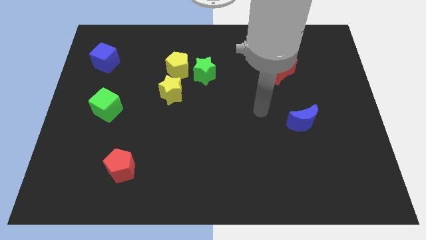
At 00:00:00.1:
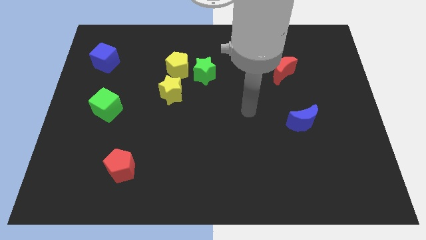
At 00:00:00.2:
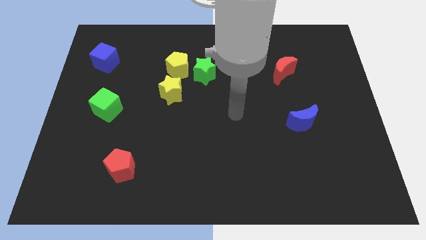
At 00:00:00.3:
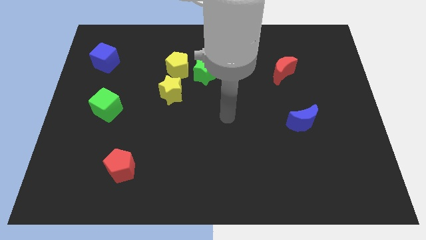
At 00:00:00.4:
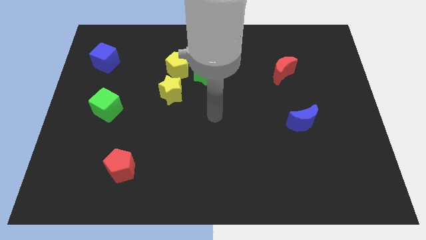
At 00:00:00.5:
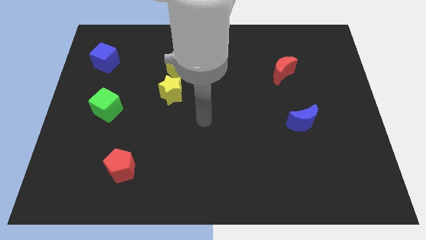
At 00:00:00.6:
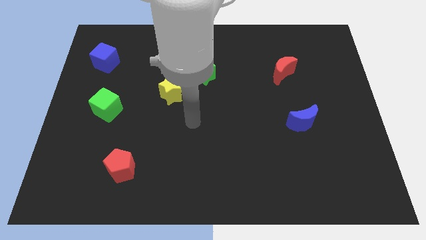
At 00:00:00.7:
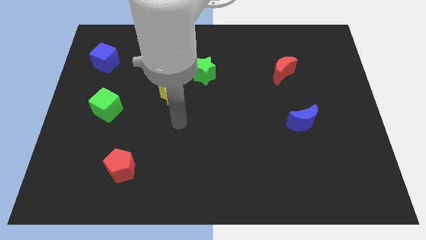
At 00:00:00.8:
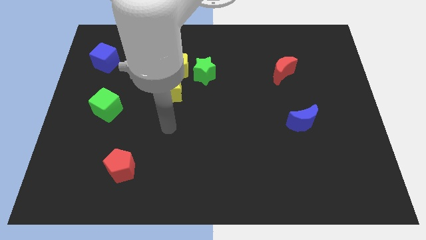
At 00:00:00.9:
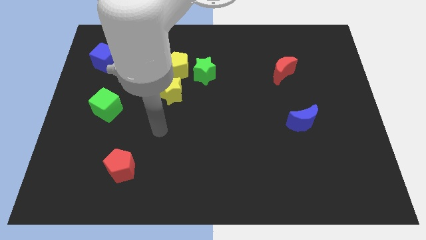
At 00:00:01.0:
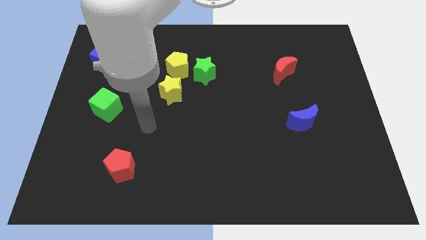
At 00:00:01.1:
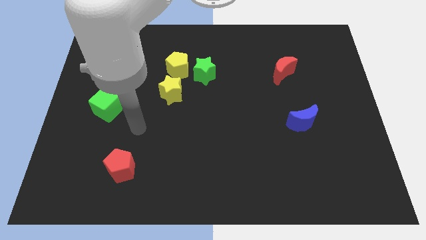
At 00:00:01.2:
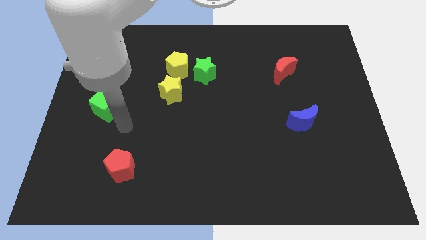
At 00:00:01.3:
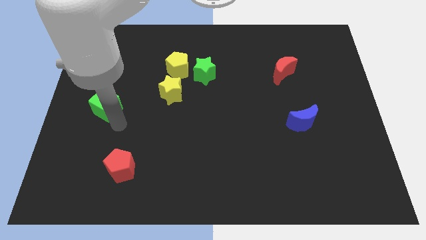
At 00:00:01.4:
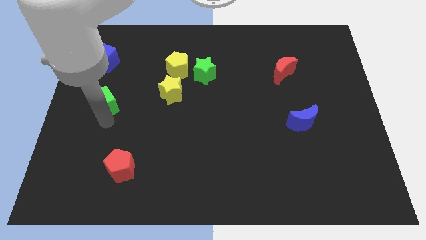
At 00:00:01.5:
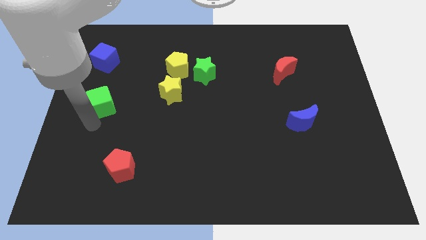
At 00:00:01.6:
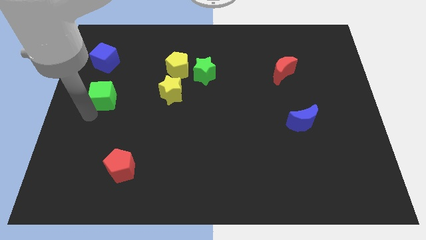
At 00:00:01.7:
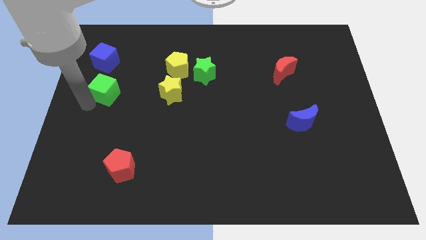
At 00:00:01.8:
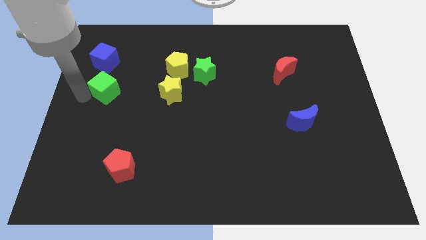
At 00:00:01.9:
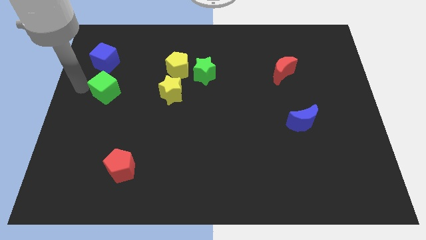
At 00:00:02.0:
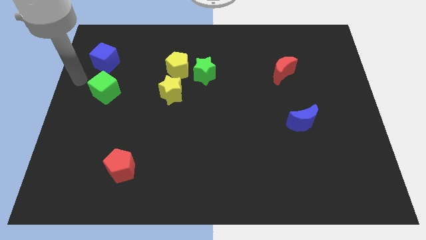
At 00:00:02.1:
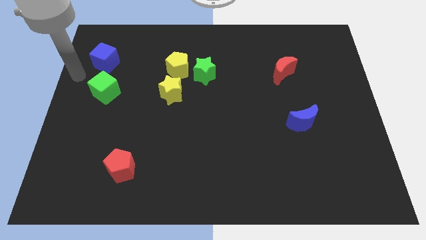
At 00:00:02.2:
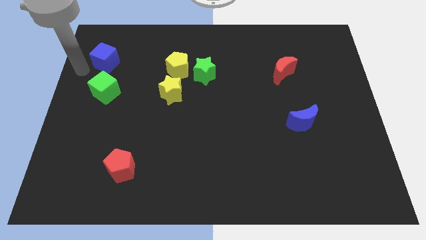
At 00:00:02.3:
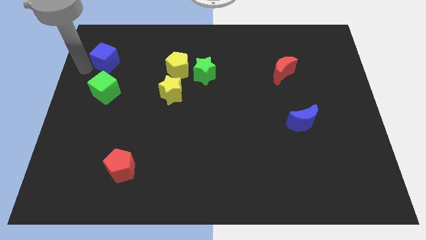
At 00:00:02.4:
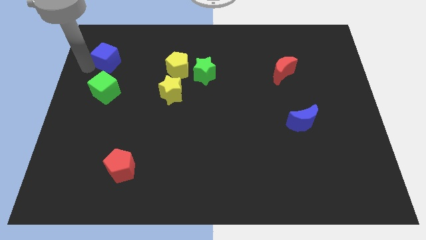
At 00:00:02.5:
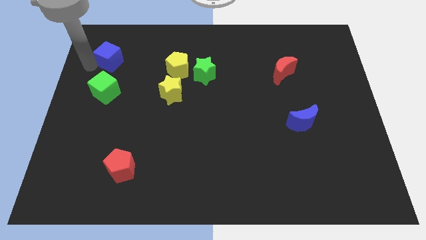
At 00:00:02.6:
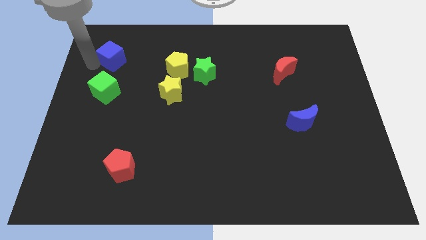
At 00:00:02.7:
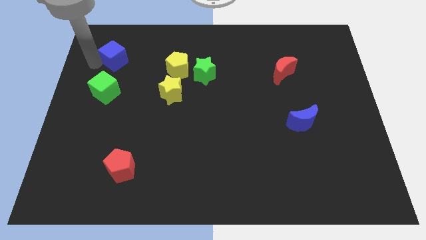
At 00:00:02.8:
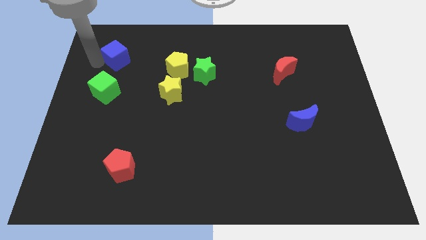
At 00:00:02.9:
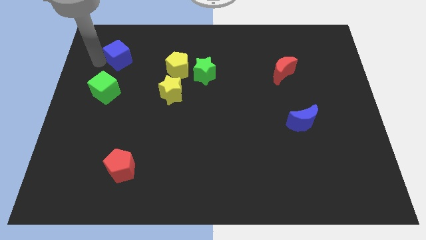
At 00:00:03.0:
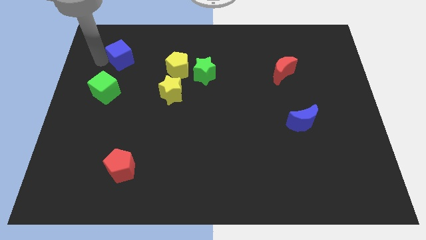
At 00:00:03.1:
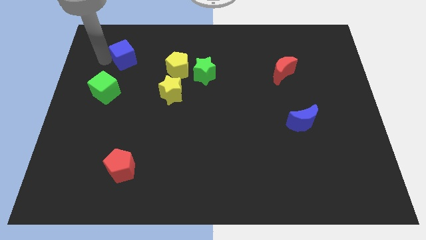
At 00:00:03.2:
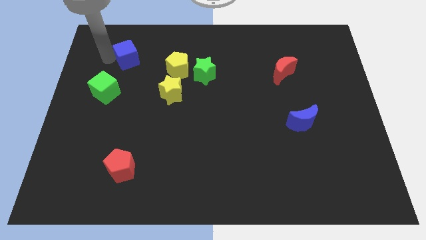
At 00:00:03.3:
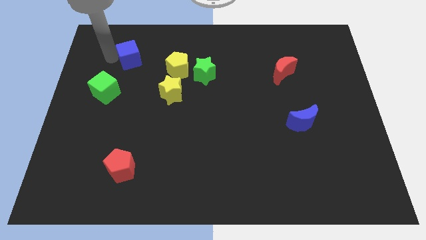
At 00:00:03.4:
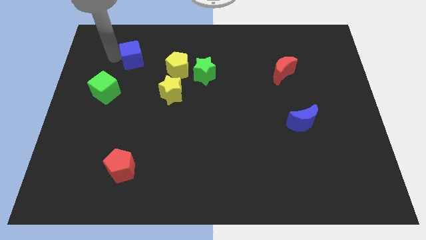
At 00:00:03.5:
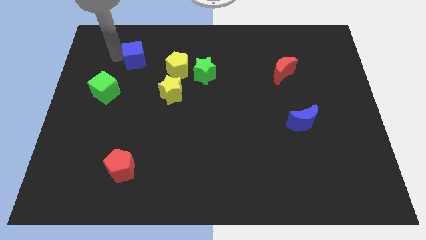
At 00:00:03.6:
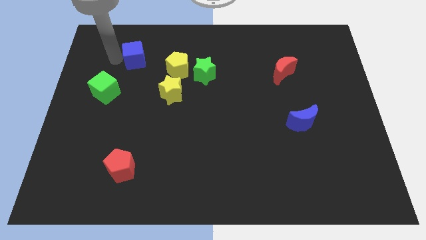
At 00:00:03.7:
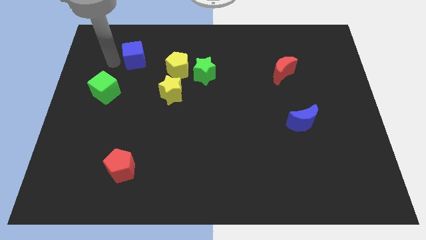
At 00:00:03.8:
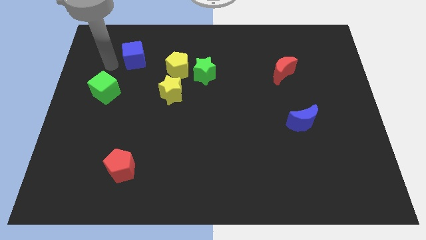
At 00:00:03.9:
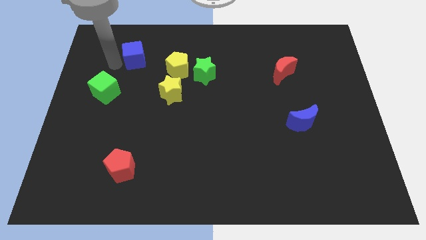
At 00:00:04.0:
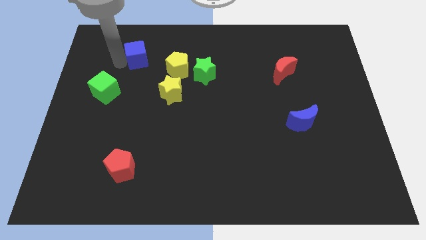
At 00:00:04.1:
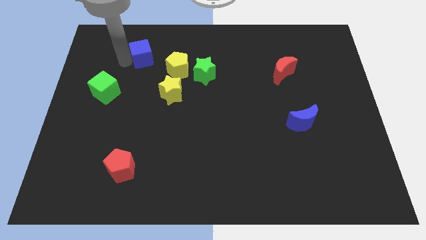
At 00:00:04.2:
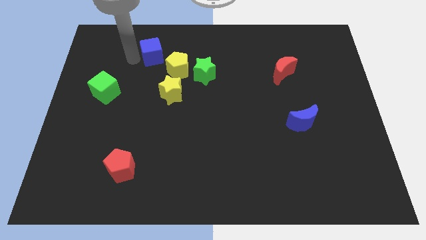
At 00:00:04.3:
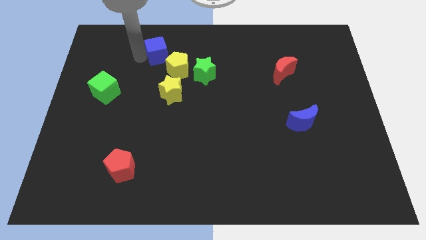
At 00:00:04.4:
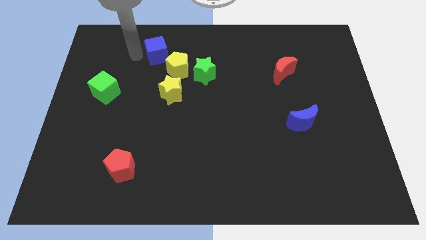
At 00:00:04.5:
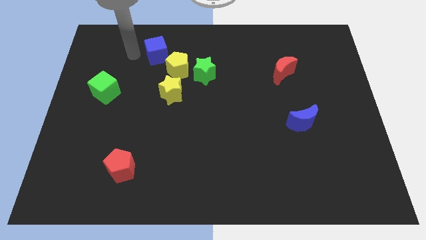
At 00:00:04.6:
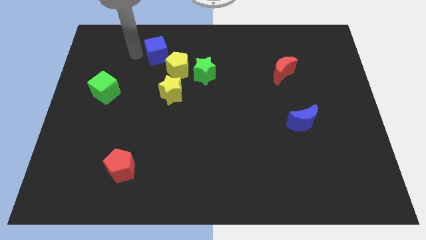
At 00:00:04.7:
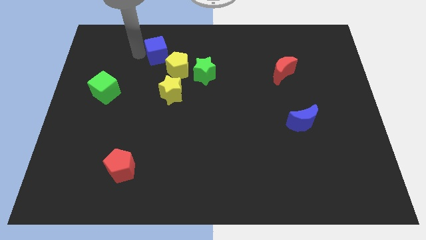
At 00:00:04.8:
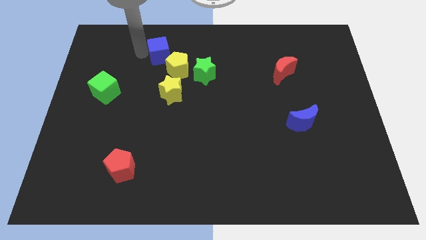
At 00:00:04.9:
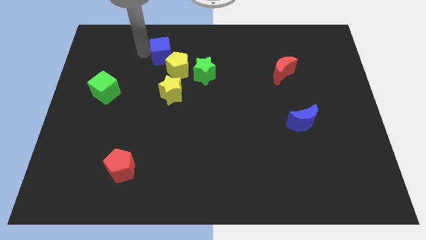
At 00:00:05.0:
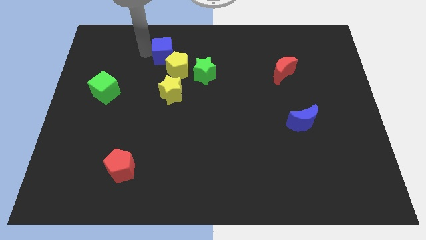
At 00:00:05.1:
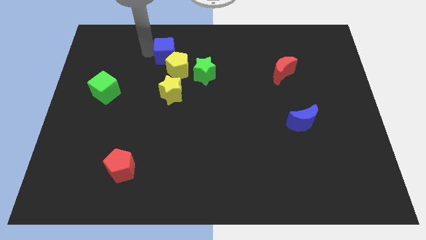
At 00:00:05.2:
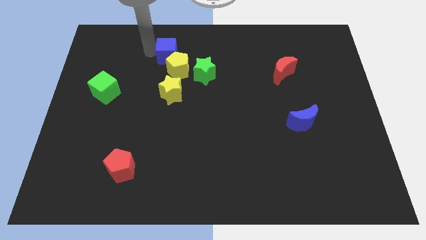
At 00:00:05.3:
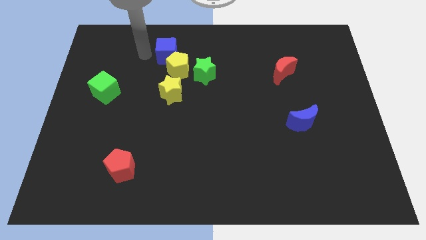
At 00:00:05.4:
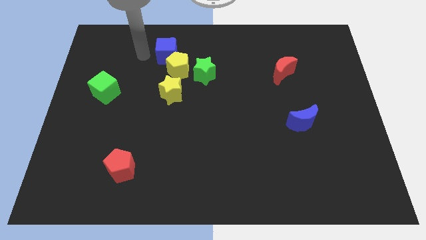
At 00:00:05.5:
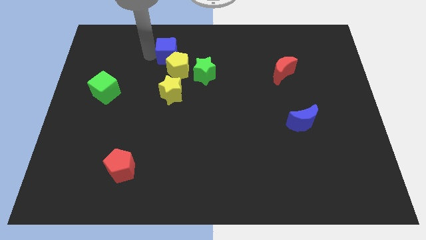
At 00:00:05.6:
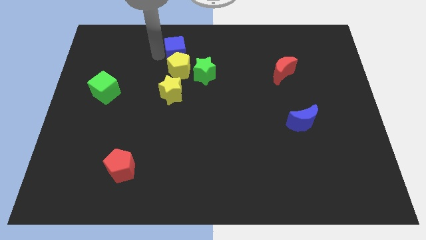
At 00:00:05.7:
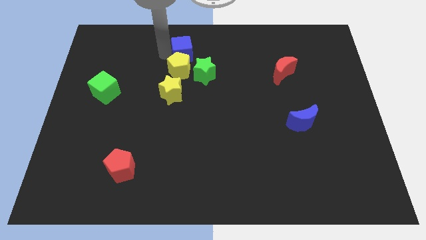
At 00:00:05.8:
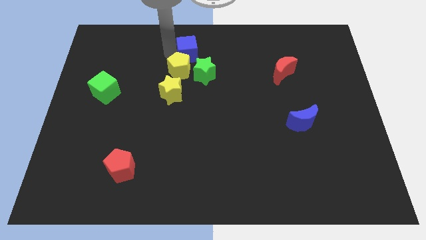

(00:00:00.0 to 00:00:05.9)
slide the blue cube to the top

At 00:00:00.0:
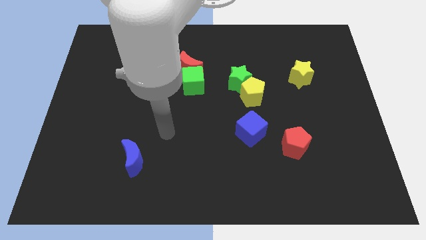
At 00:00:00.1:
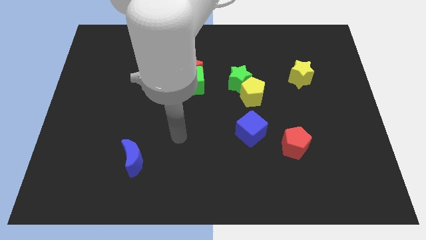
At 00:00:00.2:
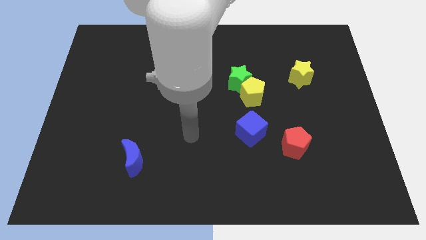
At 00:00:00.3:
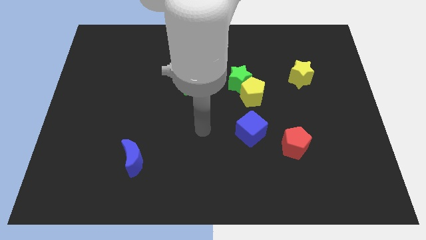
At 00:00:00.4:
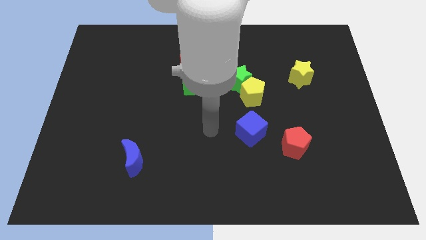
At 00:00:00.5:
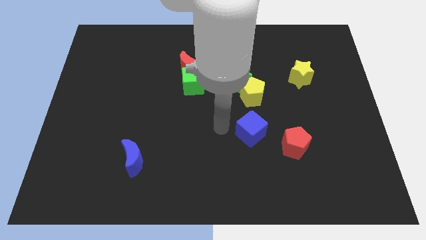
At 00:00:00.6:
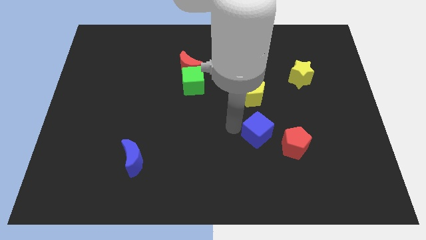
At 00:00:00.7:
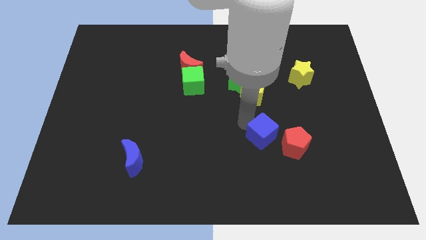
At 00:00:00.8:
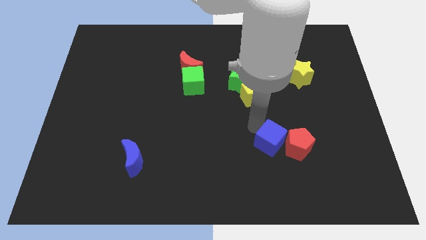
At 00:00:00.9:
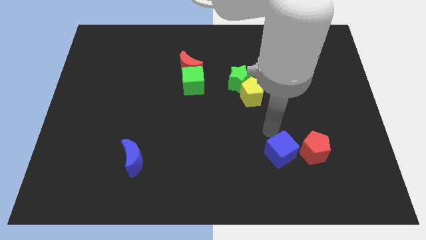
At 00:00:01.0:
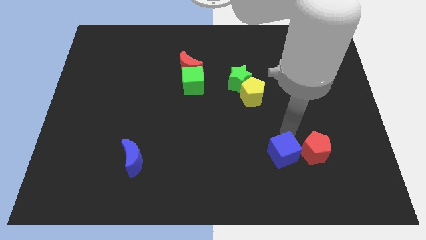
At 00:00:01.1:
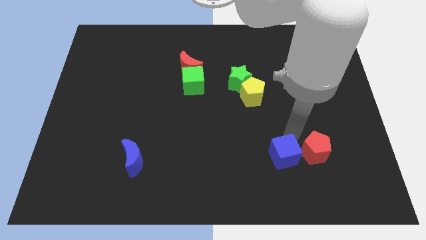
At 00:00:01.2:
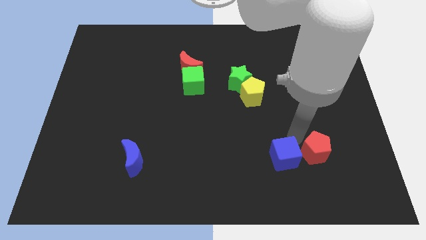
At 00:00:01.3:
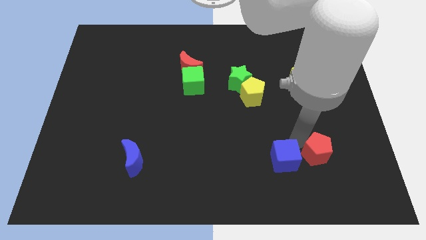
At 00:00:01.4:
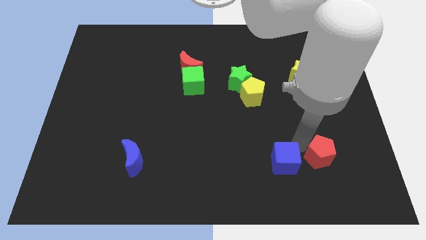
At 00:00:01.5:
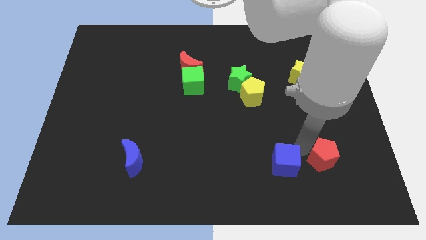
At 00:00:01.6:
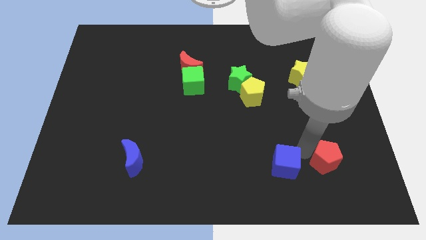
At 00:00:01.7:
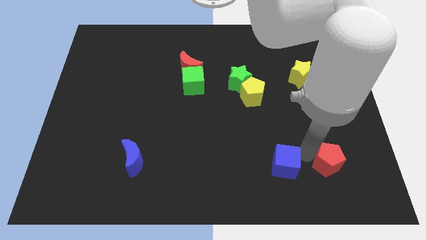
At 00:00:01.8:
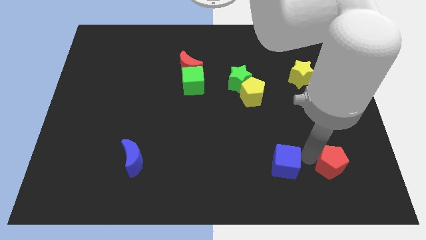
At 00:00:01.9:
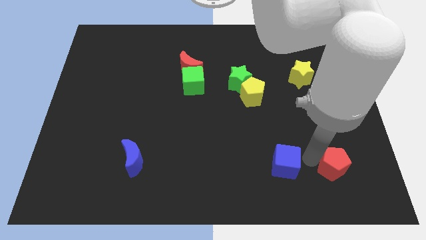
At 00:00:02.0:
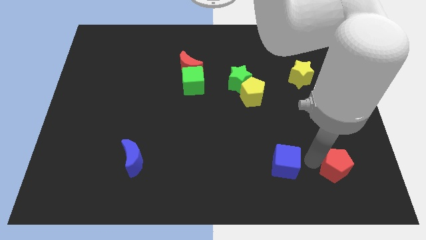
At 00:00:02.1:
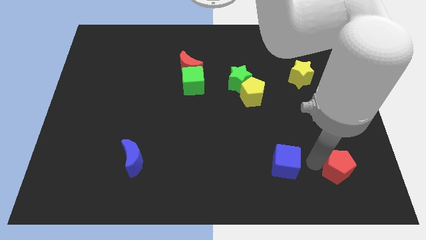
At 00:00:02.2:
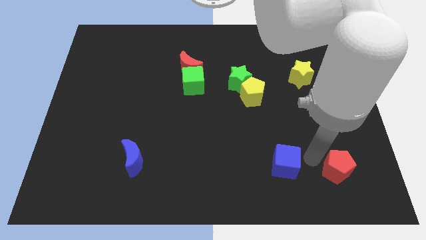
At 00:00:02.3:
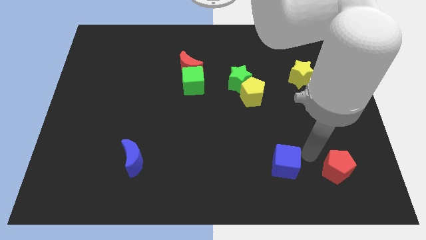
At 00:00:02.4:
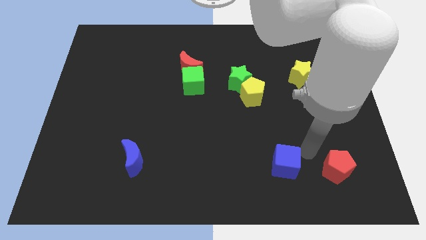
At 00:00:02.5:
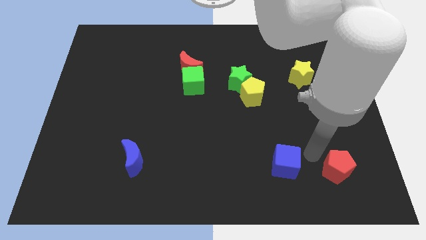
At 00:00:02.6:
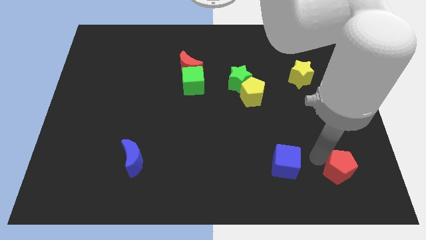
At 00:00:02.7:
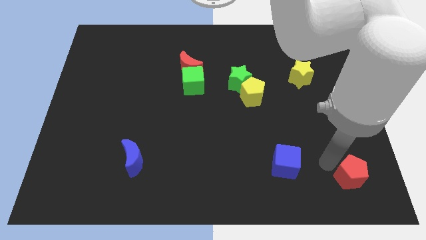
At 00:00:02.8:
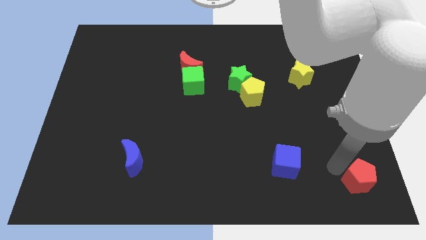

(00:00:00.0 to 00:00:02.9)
push the red pentagon to the bottom right of the board
